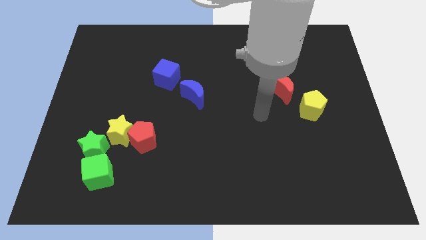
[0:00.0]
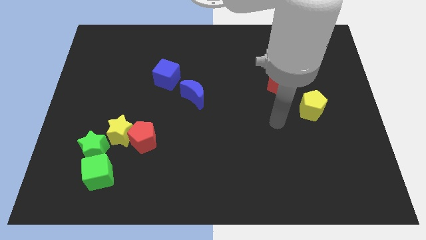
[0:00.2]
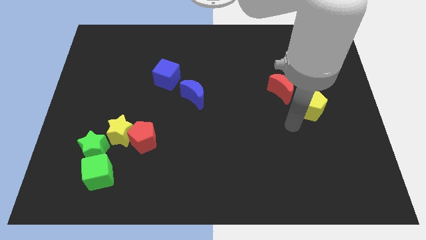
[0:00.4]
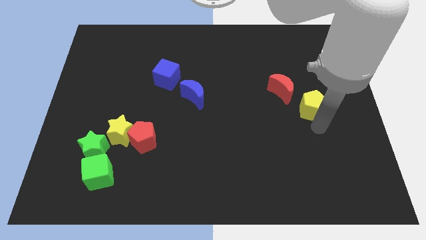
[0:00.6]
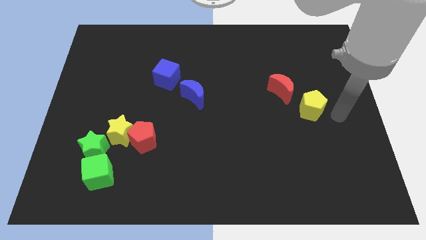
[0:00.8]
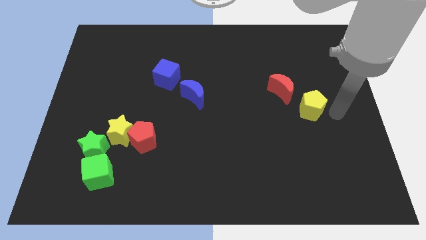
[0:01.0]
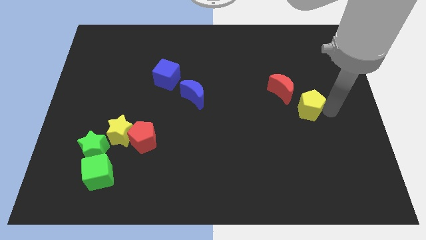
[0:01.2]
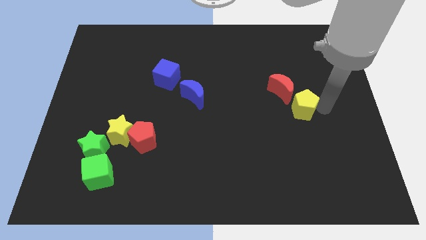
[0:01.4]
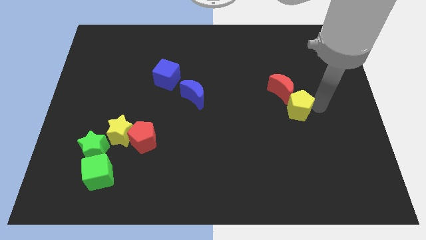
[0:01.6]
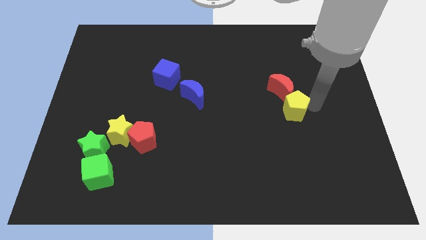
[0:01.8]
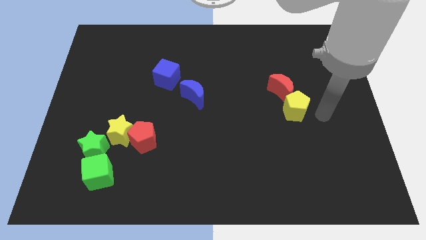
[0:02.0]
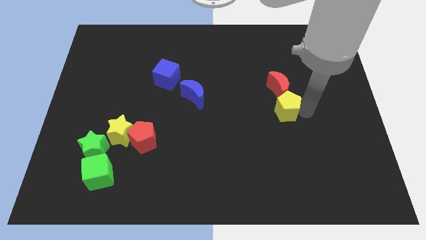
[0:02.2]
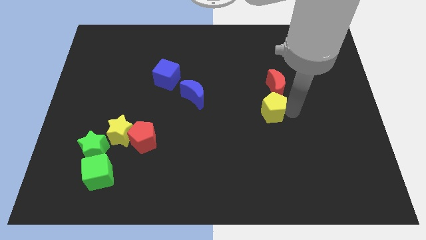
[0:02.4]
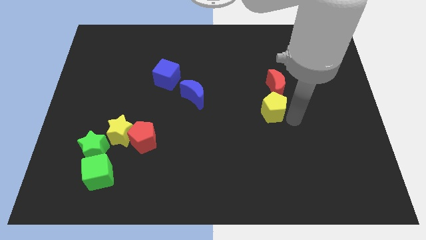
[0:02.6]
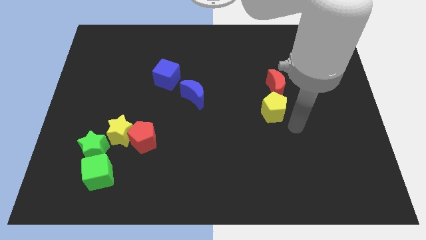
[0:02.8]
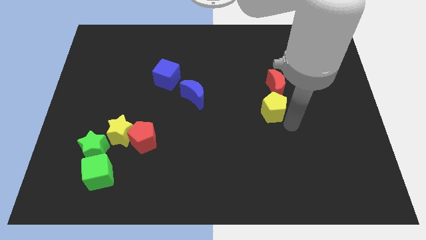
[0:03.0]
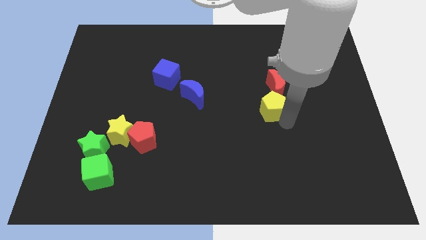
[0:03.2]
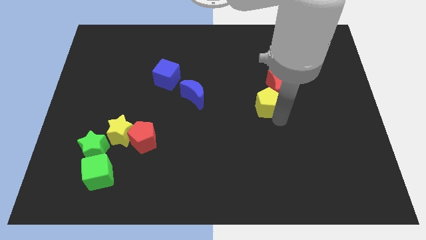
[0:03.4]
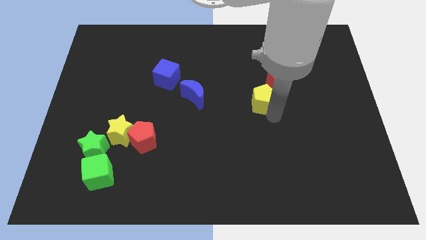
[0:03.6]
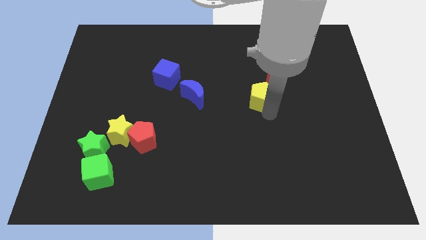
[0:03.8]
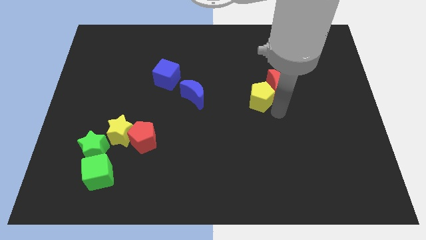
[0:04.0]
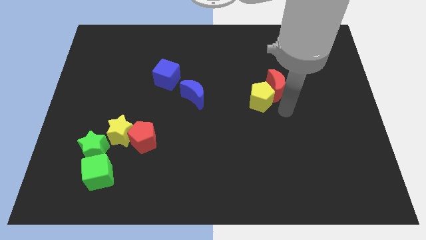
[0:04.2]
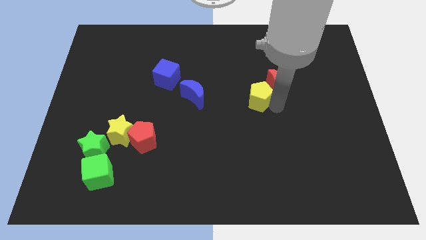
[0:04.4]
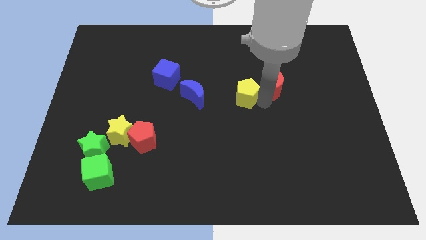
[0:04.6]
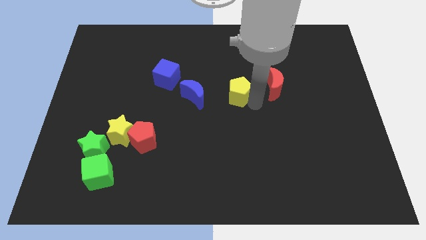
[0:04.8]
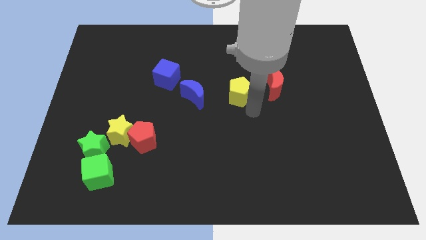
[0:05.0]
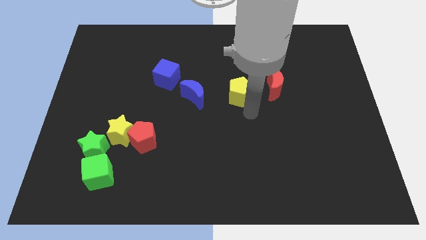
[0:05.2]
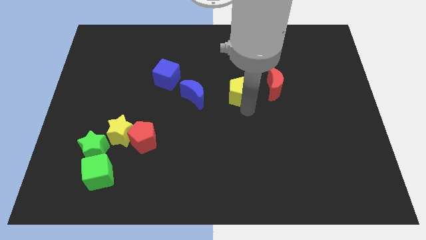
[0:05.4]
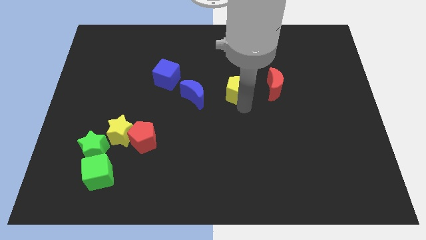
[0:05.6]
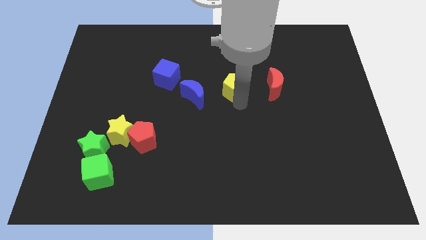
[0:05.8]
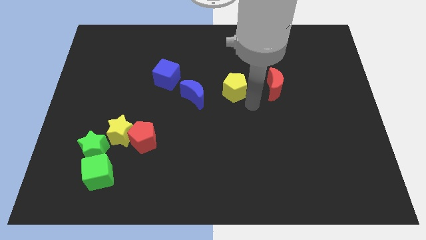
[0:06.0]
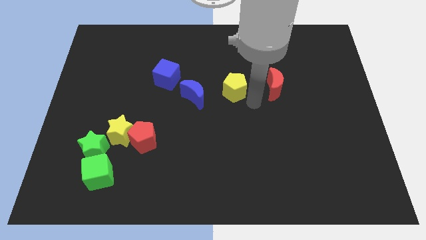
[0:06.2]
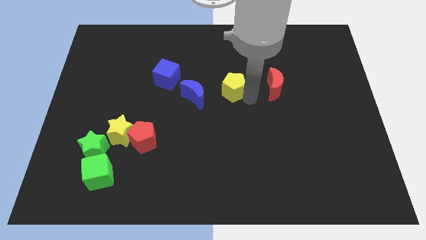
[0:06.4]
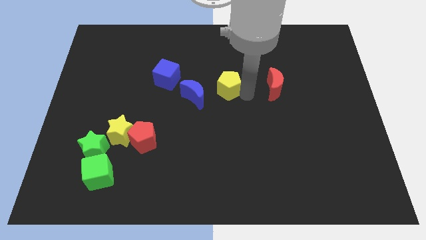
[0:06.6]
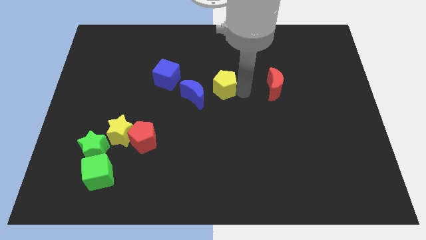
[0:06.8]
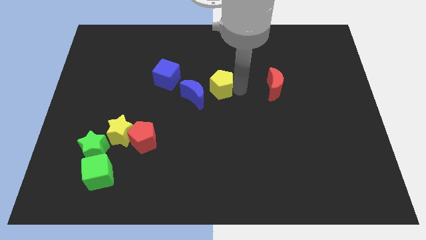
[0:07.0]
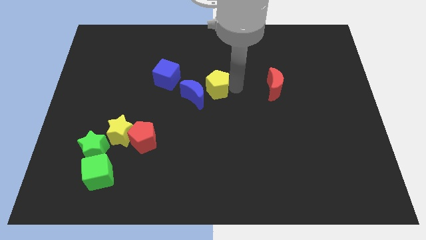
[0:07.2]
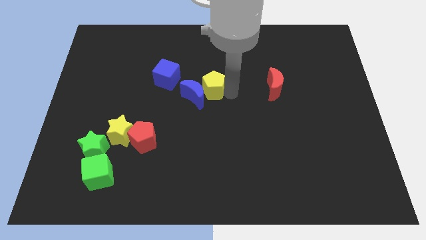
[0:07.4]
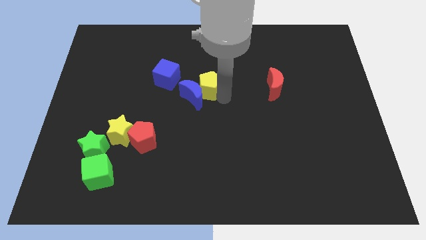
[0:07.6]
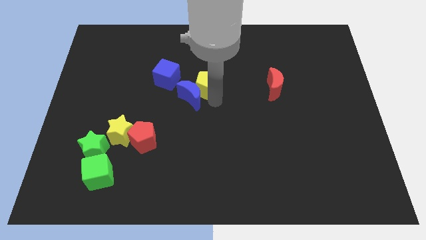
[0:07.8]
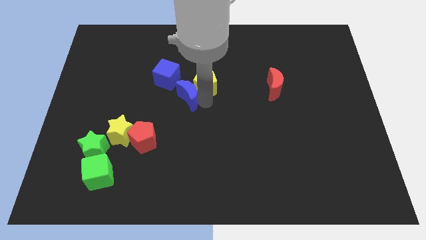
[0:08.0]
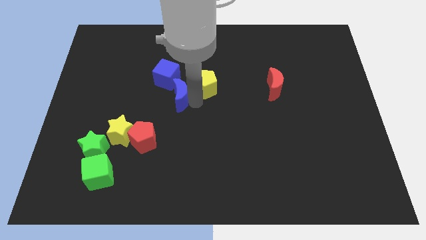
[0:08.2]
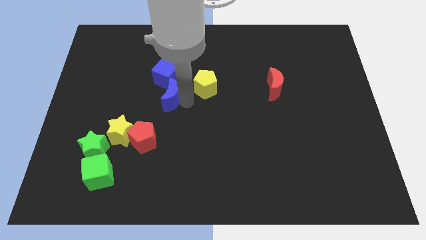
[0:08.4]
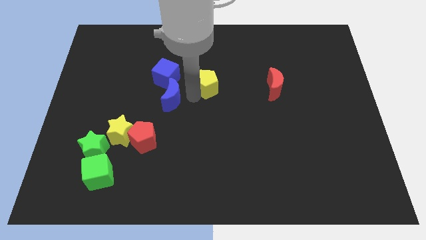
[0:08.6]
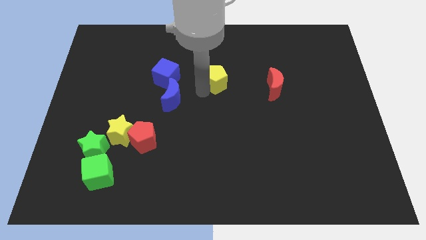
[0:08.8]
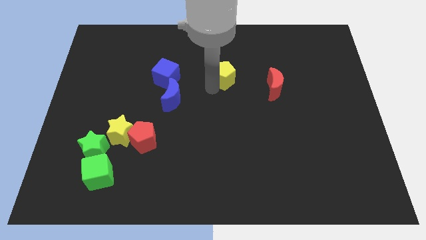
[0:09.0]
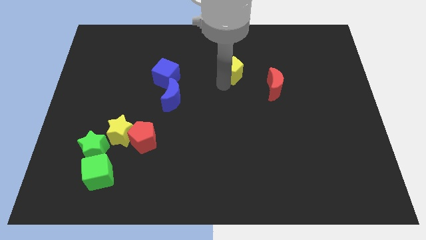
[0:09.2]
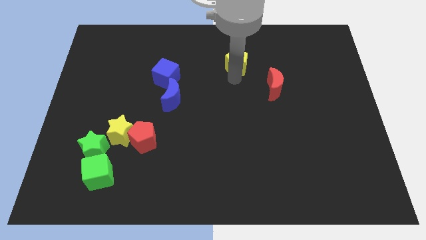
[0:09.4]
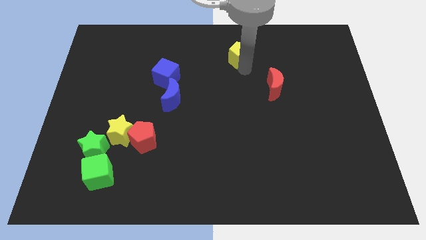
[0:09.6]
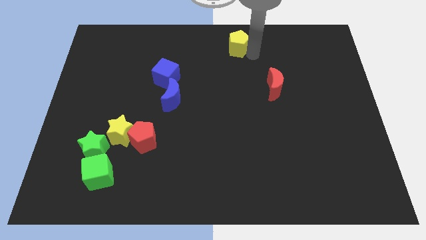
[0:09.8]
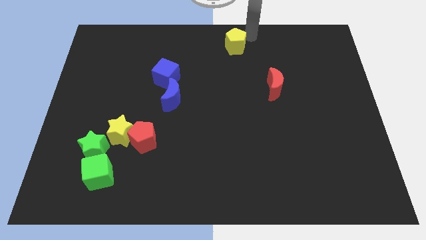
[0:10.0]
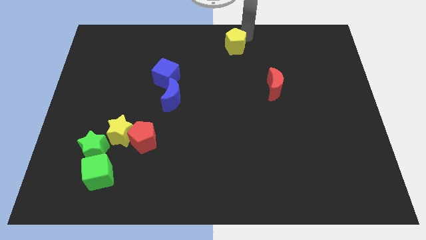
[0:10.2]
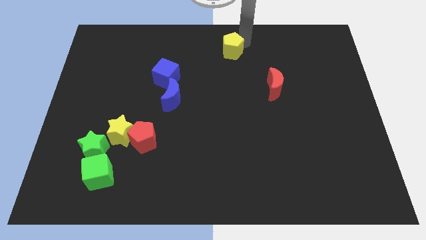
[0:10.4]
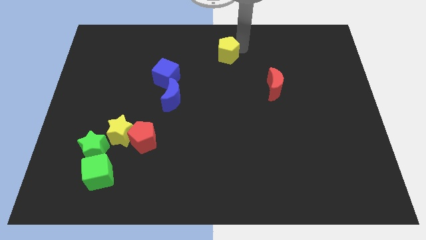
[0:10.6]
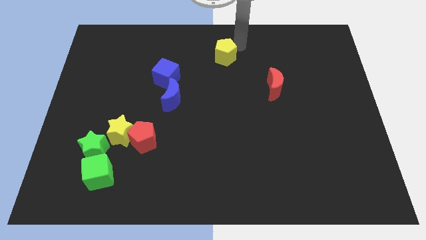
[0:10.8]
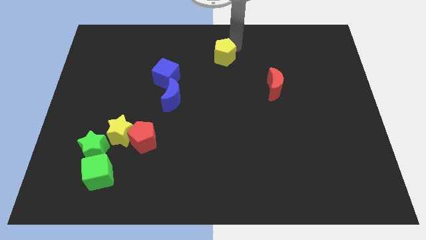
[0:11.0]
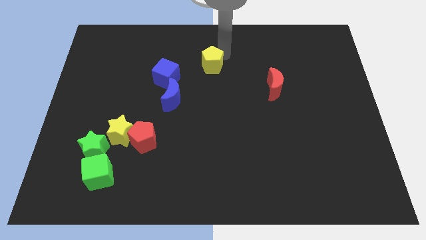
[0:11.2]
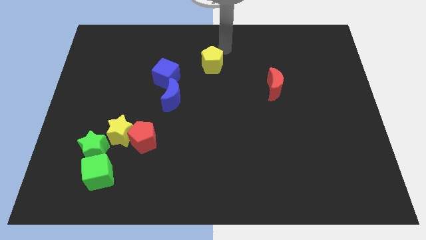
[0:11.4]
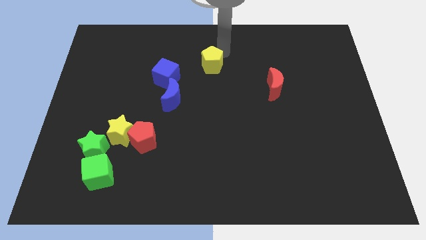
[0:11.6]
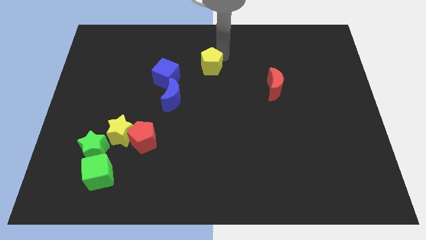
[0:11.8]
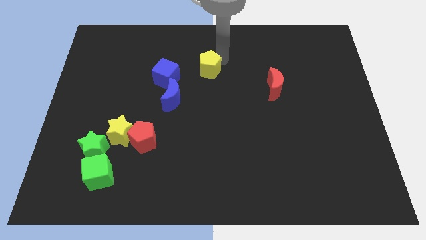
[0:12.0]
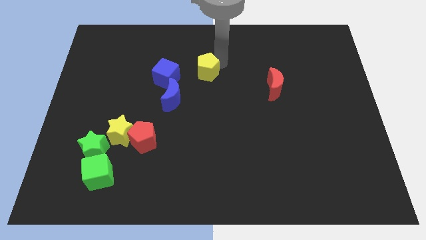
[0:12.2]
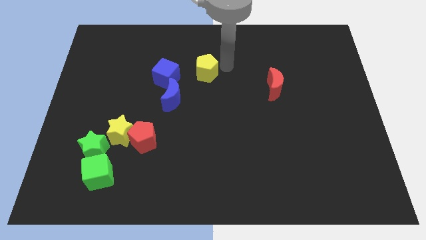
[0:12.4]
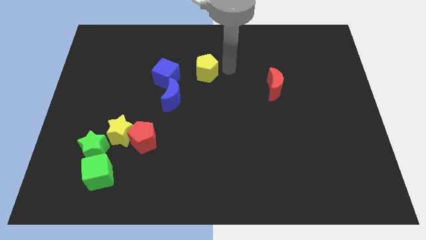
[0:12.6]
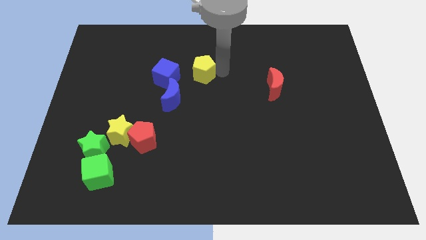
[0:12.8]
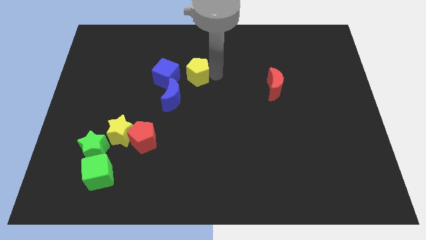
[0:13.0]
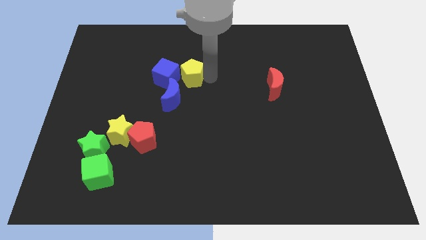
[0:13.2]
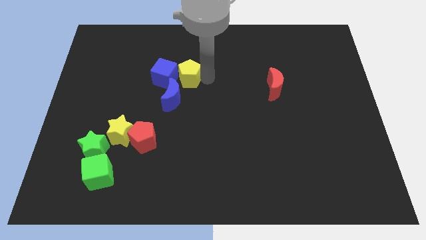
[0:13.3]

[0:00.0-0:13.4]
put the yellow pentagon close to the blue cube

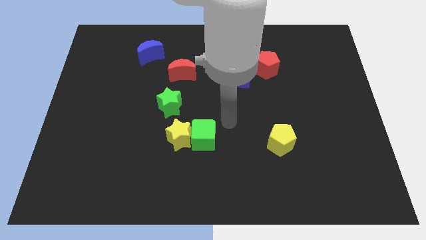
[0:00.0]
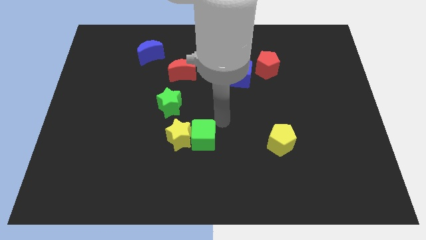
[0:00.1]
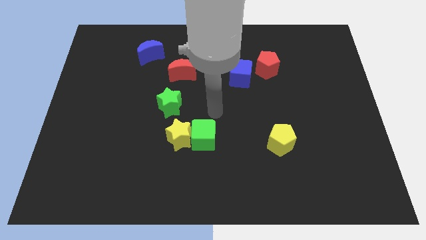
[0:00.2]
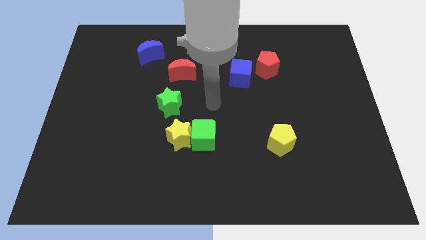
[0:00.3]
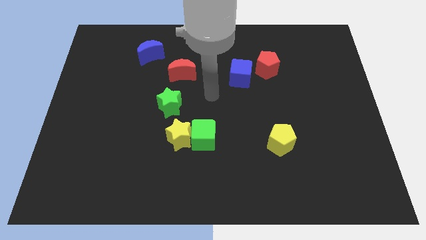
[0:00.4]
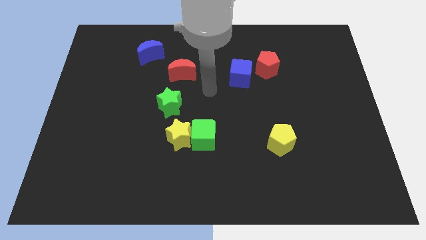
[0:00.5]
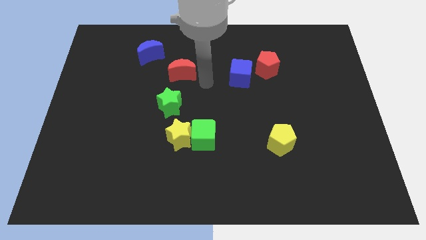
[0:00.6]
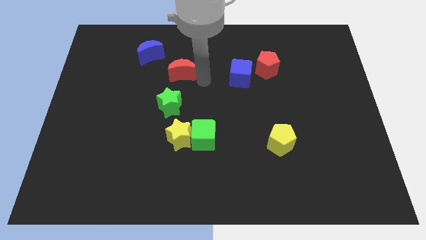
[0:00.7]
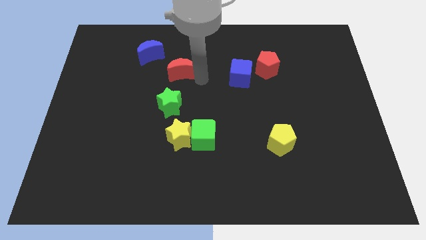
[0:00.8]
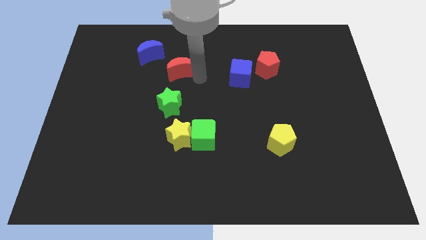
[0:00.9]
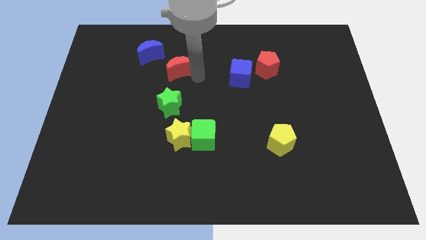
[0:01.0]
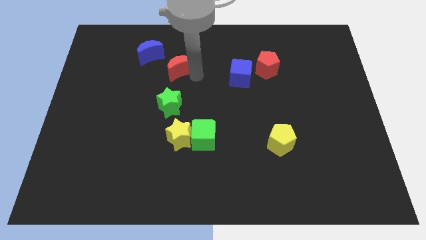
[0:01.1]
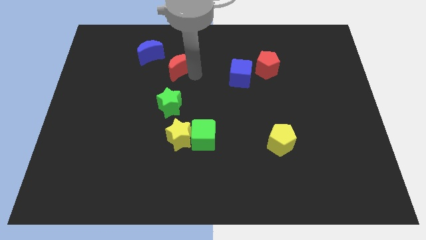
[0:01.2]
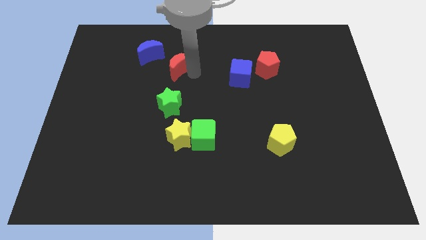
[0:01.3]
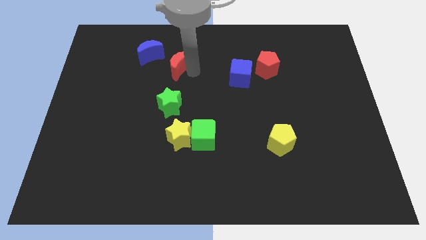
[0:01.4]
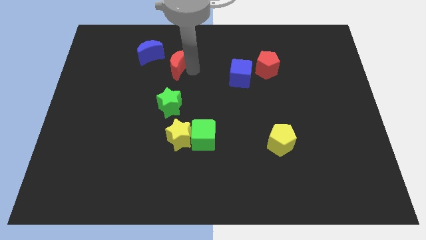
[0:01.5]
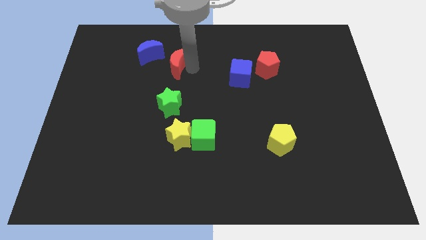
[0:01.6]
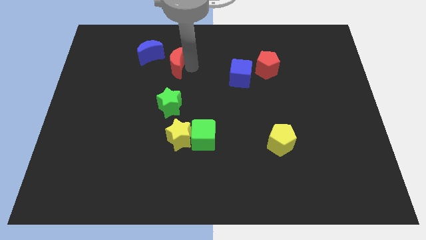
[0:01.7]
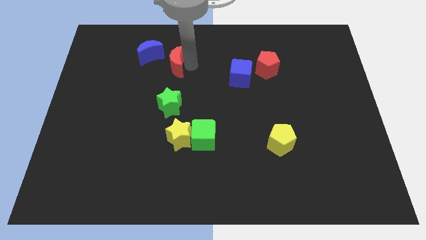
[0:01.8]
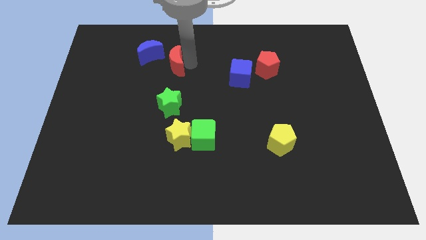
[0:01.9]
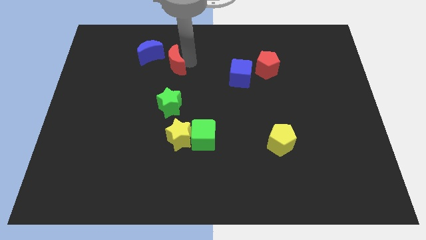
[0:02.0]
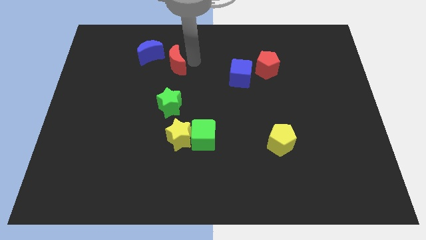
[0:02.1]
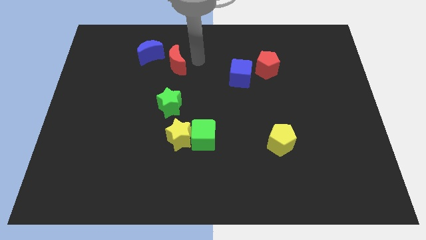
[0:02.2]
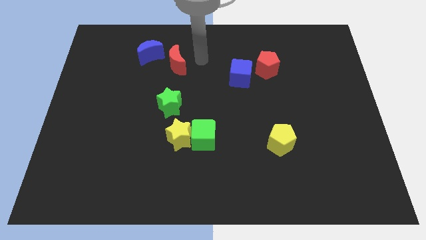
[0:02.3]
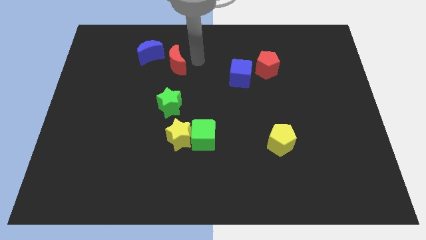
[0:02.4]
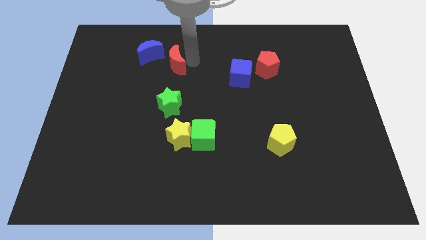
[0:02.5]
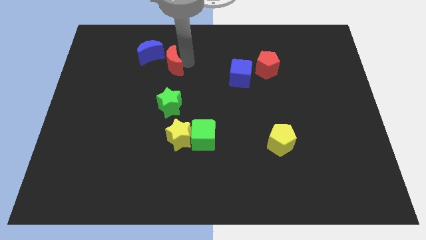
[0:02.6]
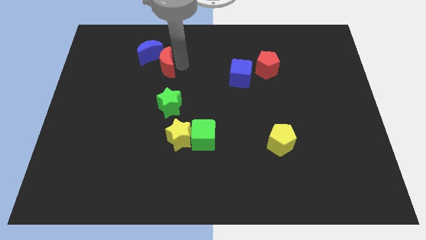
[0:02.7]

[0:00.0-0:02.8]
push the red moon to the blue moon
